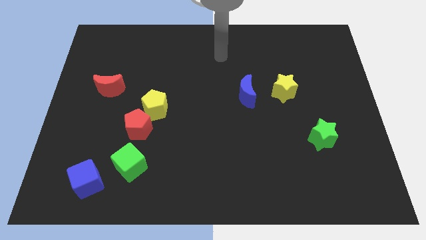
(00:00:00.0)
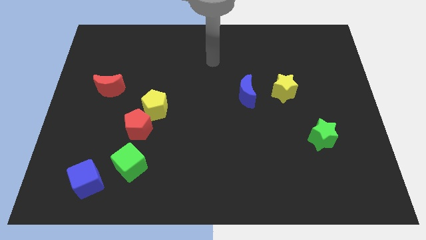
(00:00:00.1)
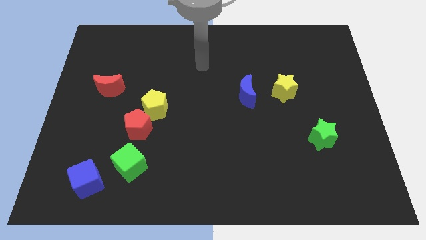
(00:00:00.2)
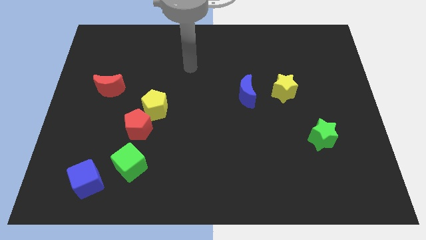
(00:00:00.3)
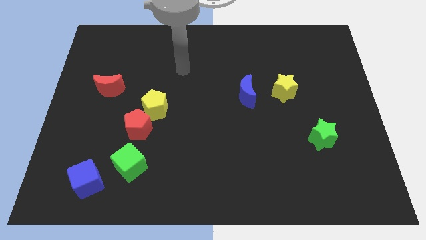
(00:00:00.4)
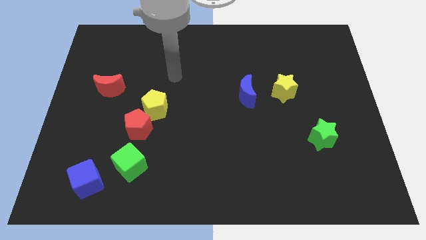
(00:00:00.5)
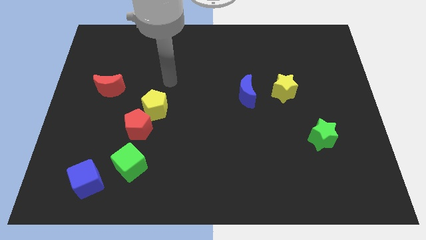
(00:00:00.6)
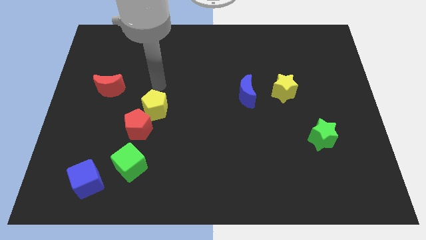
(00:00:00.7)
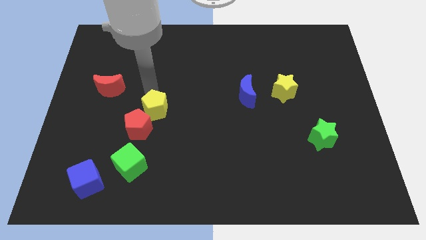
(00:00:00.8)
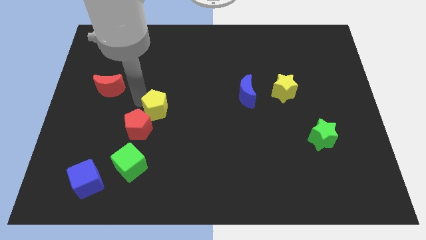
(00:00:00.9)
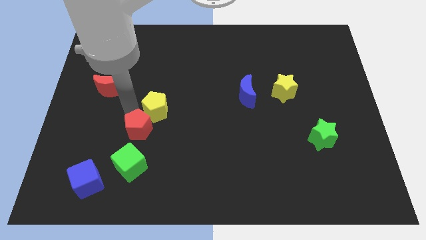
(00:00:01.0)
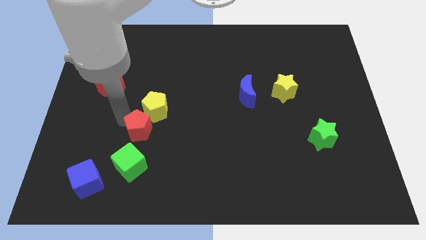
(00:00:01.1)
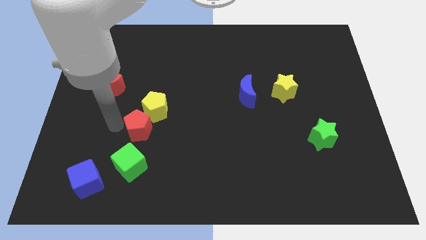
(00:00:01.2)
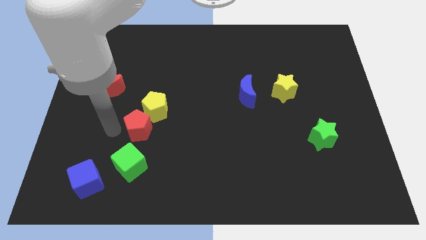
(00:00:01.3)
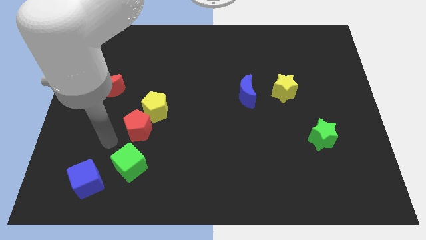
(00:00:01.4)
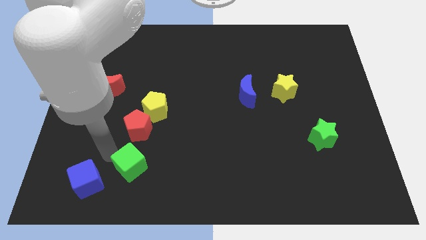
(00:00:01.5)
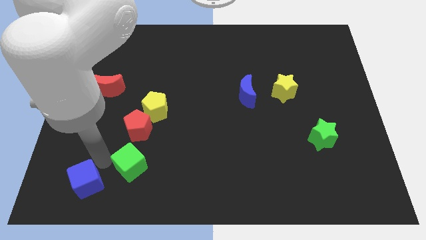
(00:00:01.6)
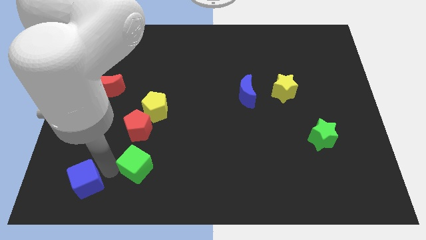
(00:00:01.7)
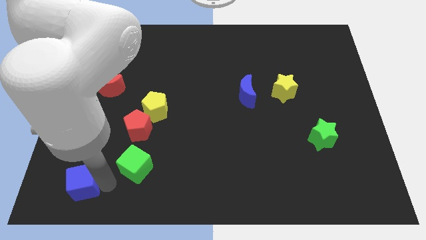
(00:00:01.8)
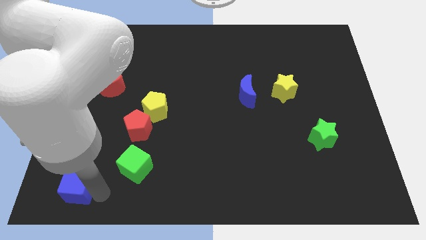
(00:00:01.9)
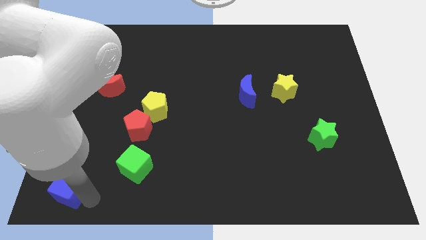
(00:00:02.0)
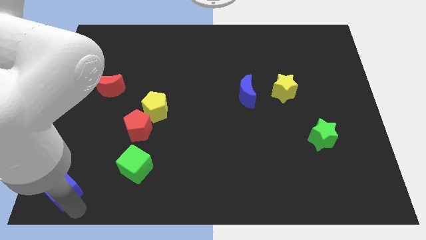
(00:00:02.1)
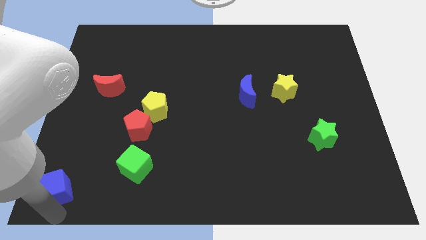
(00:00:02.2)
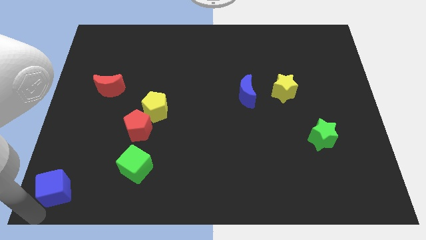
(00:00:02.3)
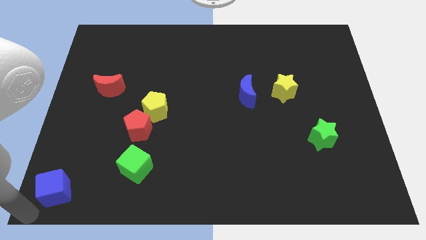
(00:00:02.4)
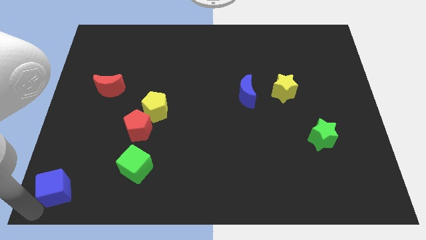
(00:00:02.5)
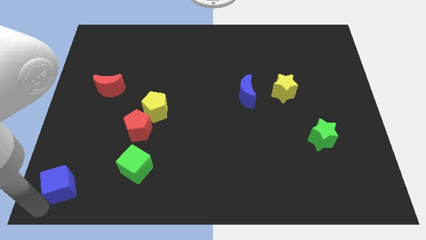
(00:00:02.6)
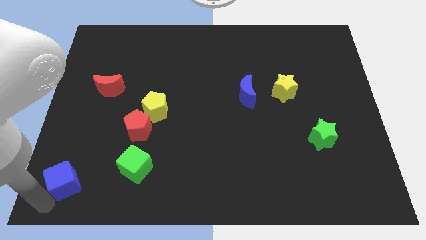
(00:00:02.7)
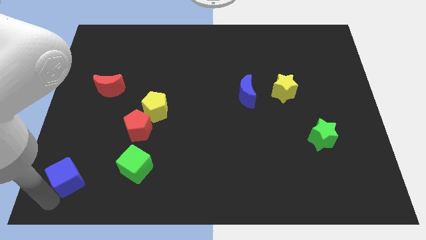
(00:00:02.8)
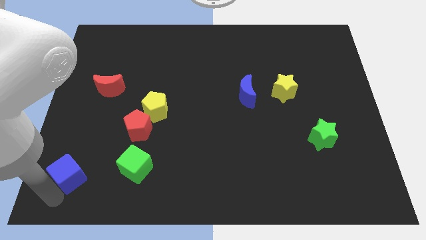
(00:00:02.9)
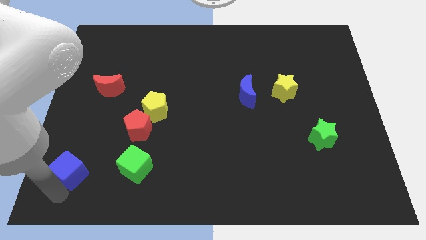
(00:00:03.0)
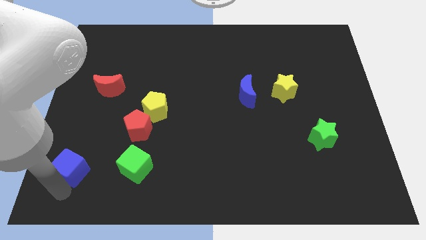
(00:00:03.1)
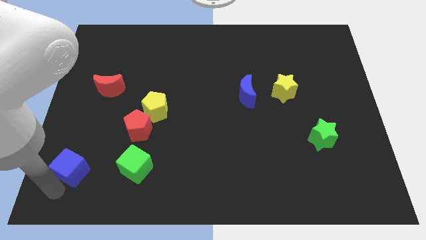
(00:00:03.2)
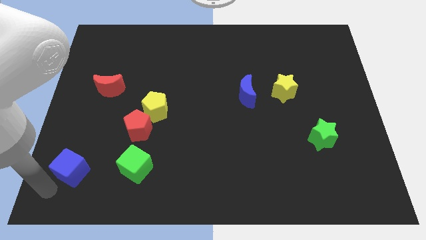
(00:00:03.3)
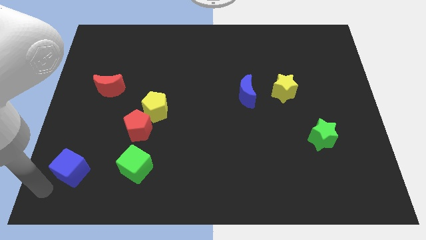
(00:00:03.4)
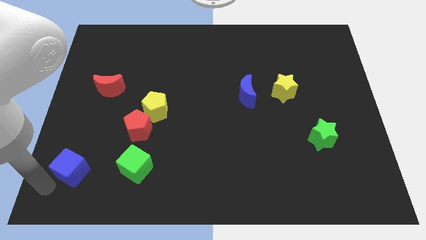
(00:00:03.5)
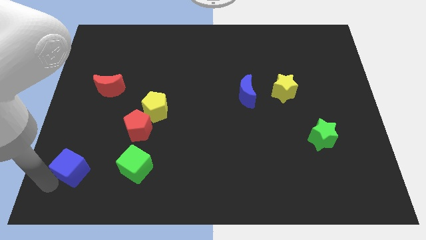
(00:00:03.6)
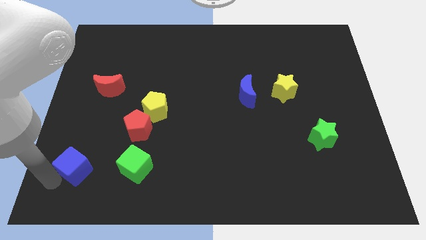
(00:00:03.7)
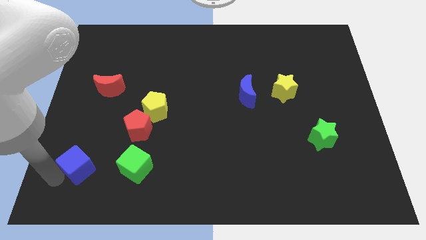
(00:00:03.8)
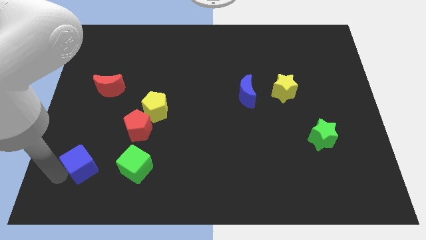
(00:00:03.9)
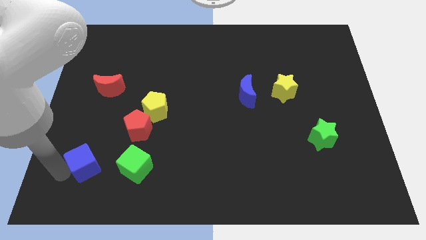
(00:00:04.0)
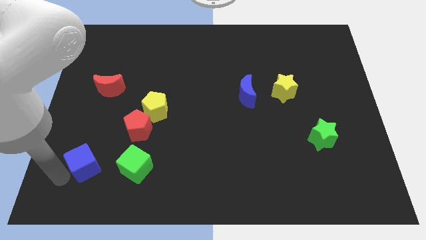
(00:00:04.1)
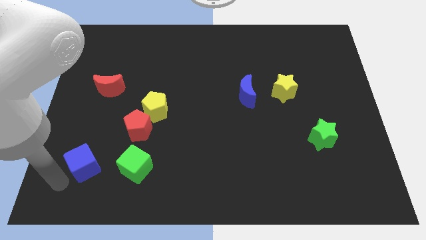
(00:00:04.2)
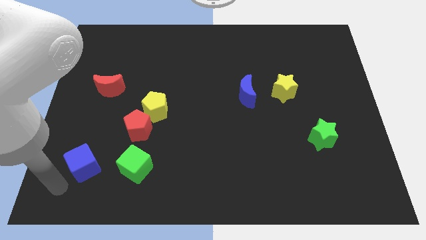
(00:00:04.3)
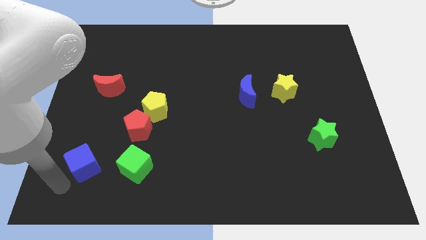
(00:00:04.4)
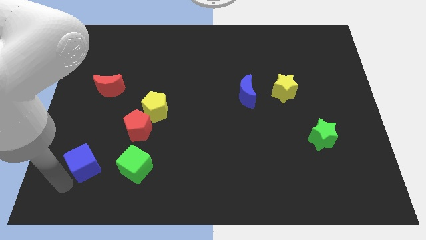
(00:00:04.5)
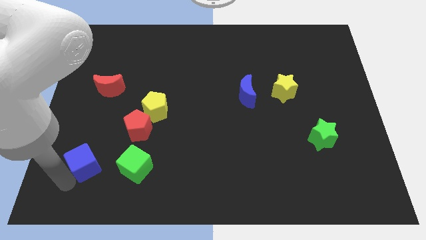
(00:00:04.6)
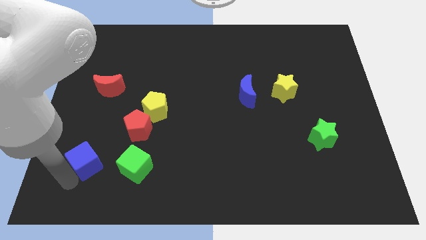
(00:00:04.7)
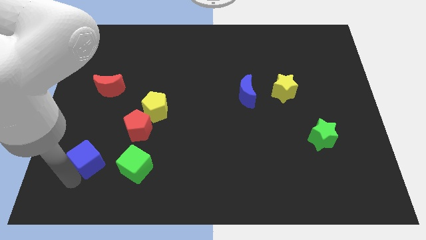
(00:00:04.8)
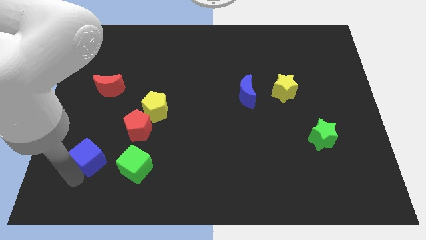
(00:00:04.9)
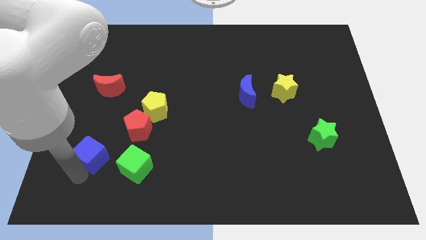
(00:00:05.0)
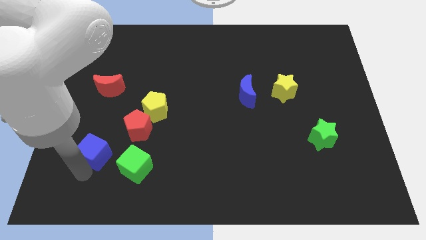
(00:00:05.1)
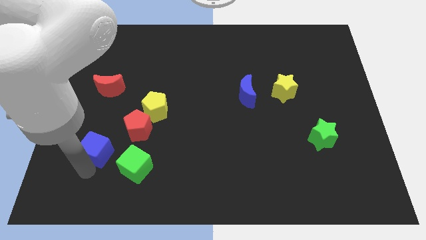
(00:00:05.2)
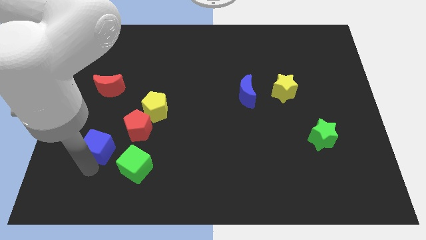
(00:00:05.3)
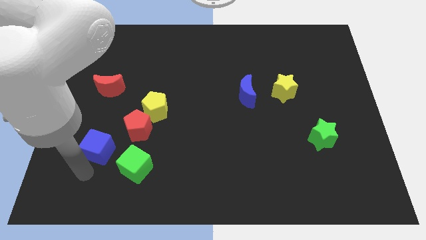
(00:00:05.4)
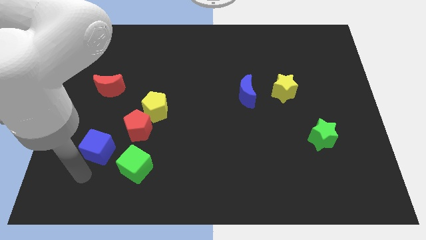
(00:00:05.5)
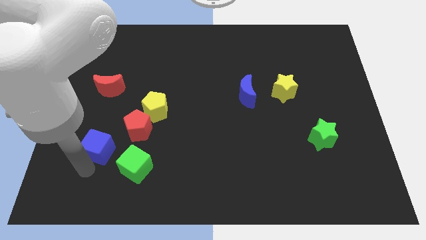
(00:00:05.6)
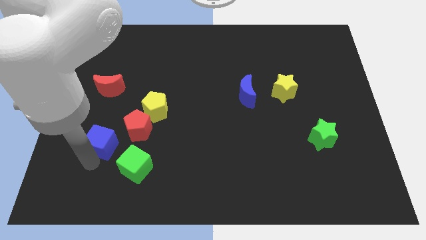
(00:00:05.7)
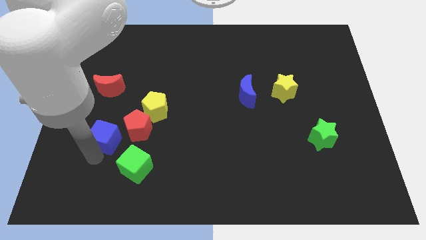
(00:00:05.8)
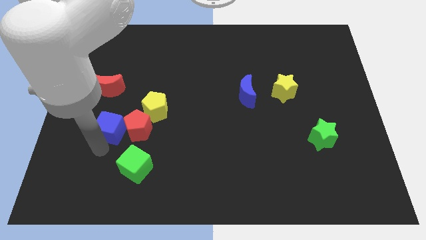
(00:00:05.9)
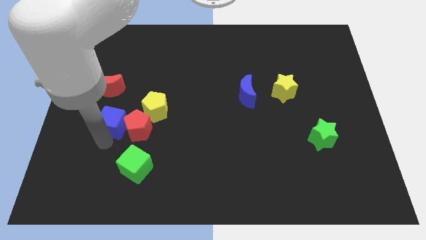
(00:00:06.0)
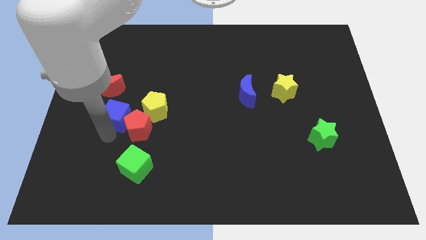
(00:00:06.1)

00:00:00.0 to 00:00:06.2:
push the blue cube diagonally down and to the right of the red moon

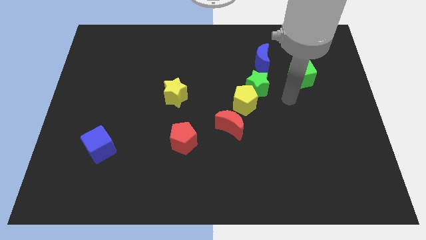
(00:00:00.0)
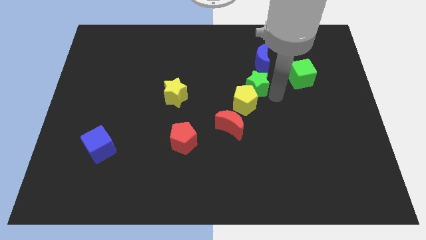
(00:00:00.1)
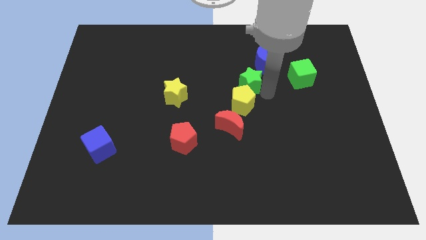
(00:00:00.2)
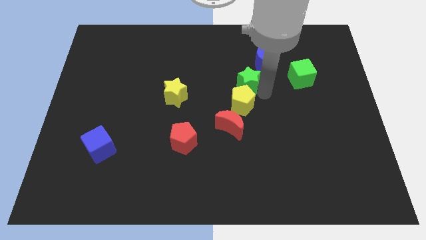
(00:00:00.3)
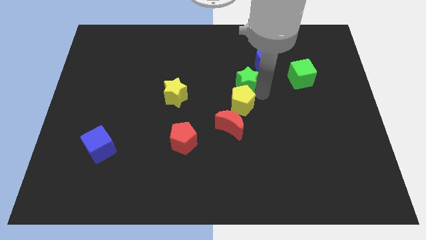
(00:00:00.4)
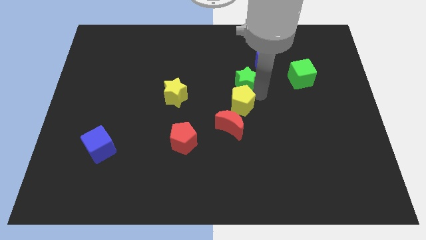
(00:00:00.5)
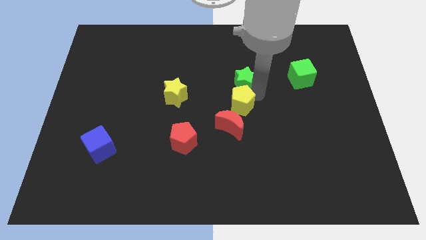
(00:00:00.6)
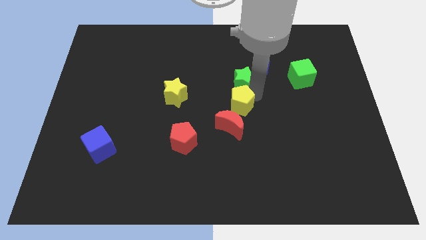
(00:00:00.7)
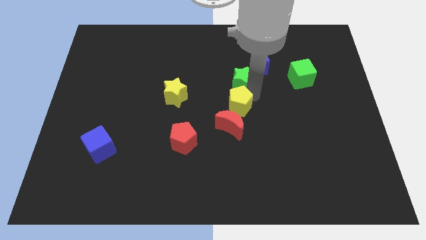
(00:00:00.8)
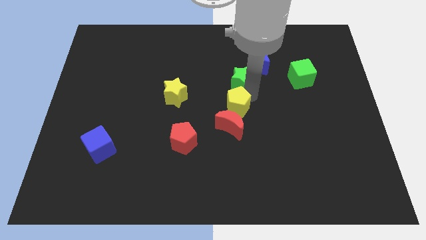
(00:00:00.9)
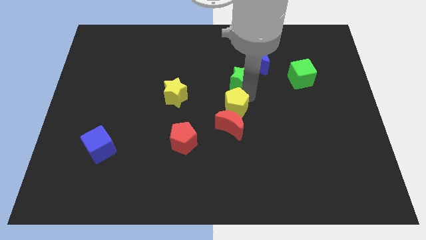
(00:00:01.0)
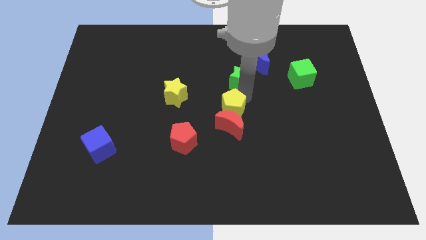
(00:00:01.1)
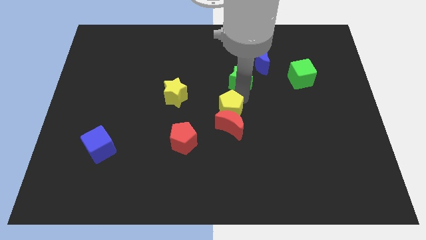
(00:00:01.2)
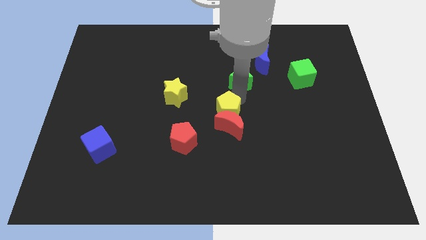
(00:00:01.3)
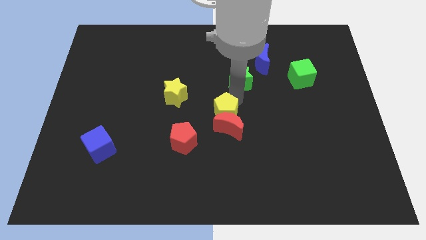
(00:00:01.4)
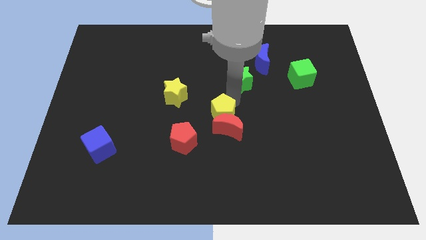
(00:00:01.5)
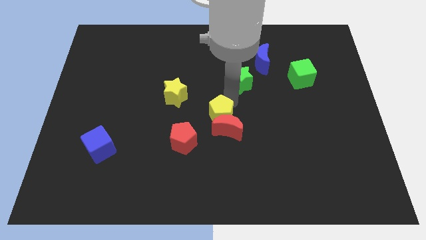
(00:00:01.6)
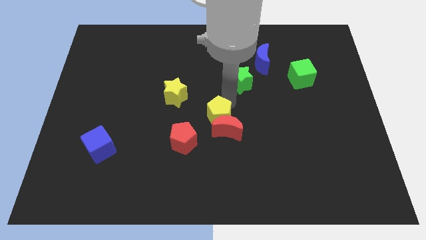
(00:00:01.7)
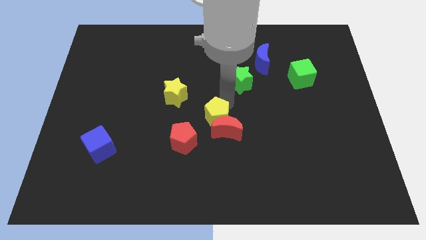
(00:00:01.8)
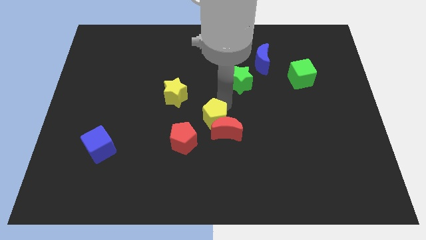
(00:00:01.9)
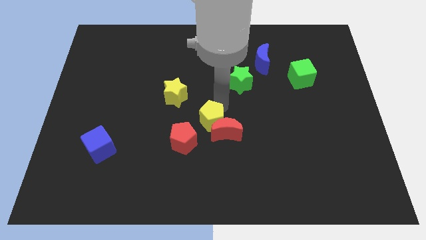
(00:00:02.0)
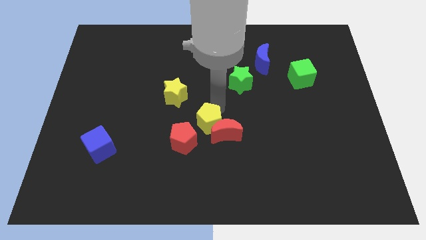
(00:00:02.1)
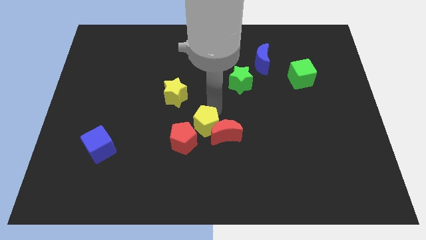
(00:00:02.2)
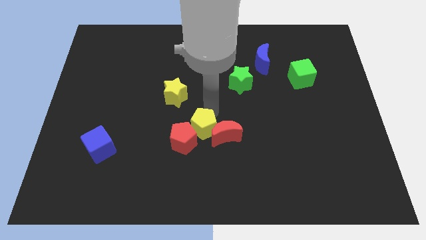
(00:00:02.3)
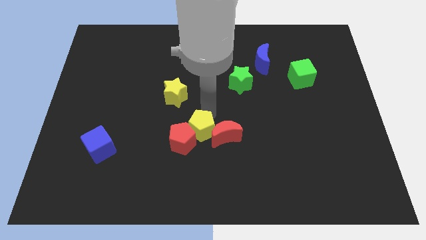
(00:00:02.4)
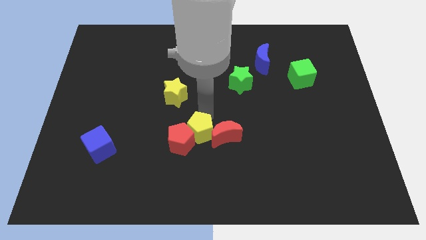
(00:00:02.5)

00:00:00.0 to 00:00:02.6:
slide the yellow pentagon to the bottom left of the red moon
